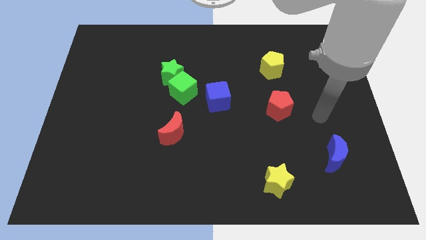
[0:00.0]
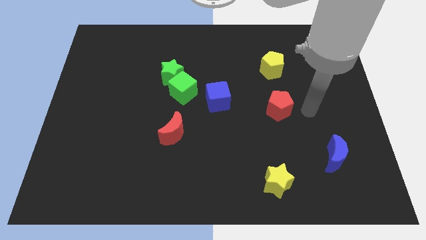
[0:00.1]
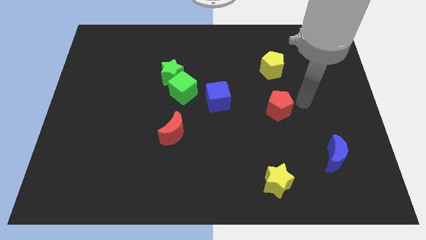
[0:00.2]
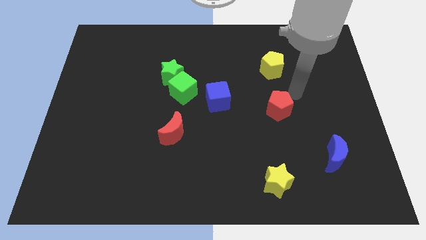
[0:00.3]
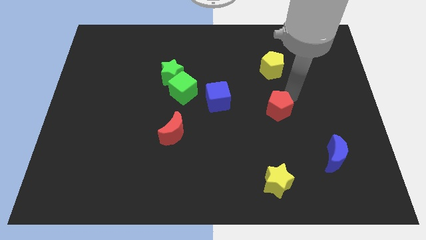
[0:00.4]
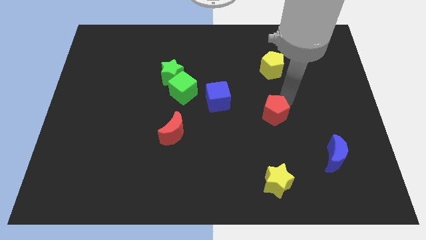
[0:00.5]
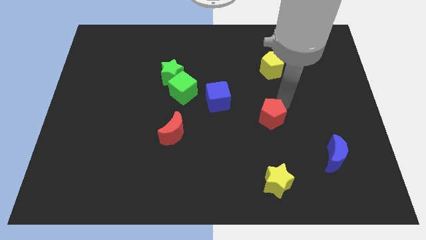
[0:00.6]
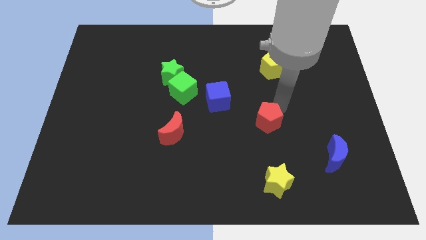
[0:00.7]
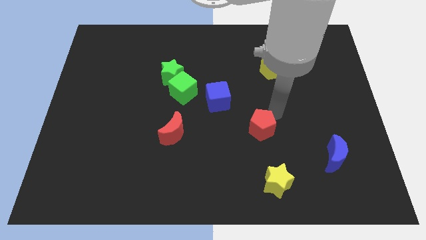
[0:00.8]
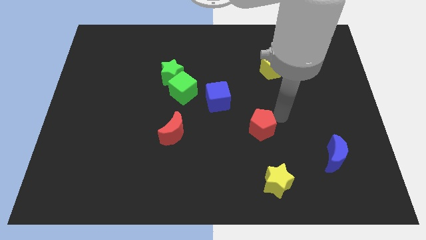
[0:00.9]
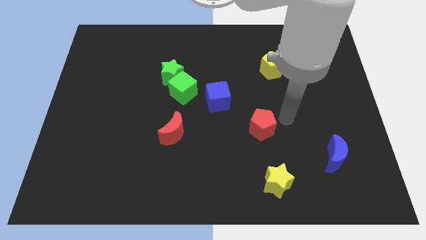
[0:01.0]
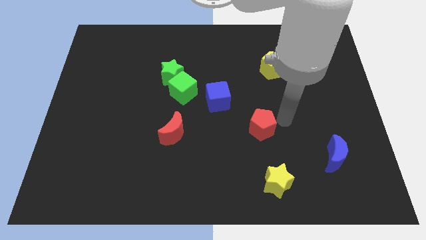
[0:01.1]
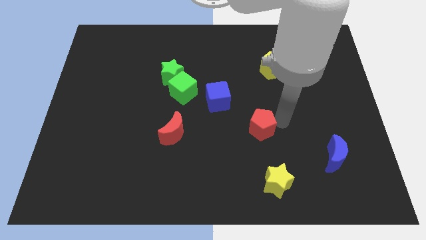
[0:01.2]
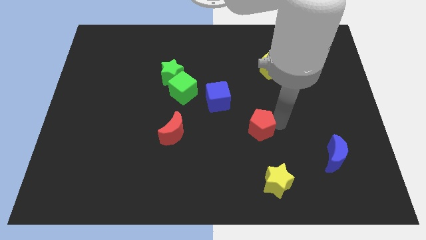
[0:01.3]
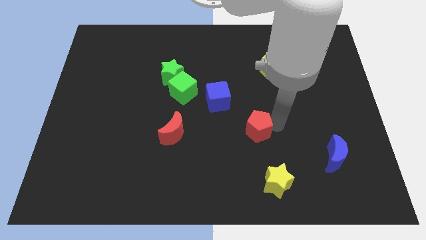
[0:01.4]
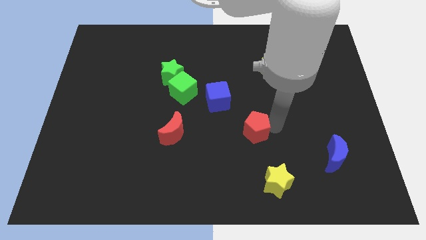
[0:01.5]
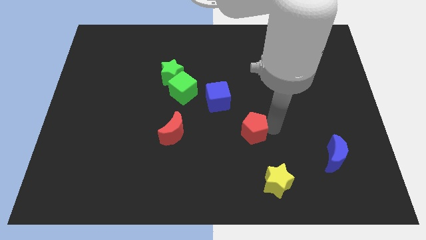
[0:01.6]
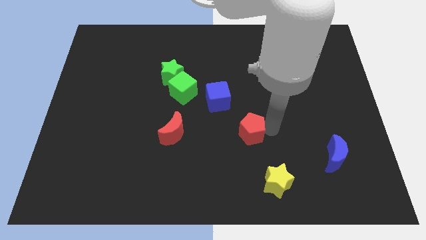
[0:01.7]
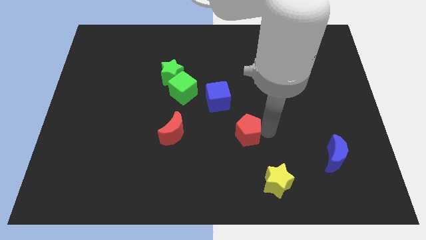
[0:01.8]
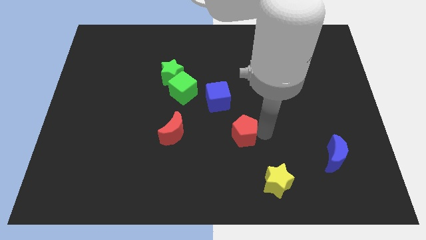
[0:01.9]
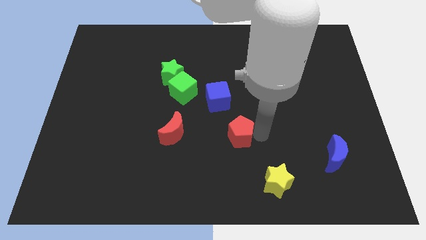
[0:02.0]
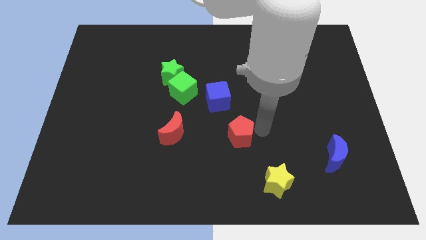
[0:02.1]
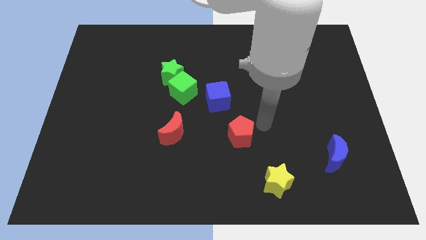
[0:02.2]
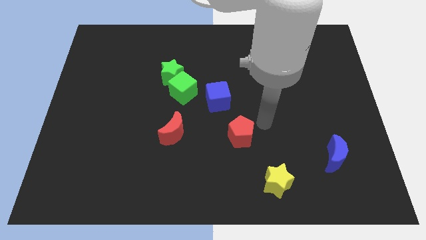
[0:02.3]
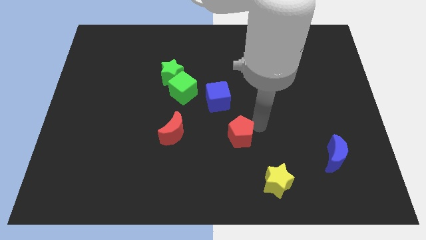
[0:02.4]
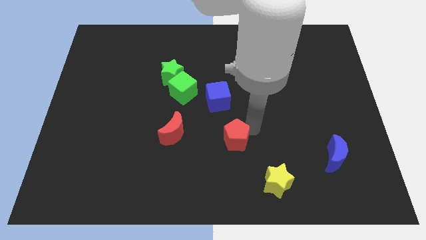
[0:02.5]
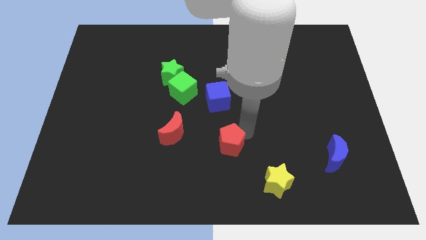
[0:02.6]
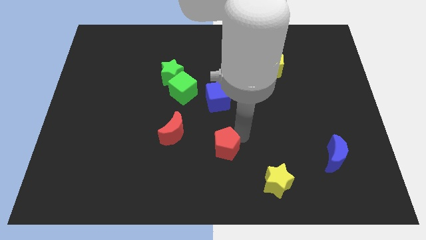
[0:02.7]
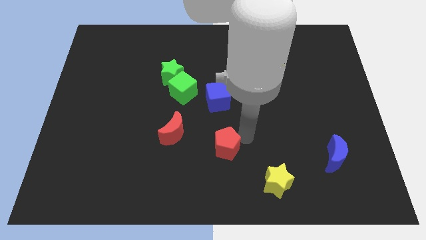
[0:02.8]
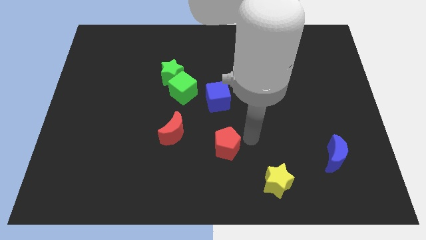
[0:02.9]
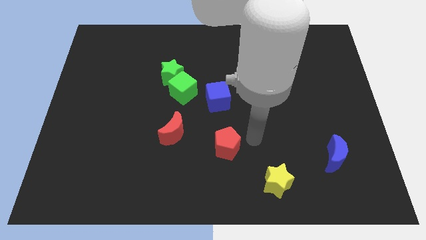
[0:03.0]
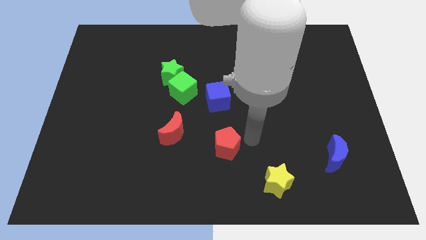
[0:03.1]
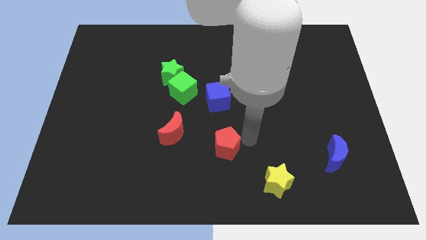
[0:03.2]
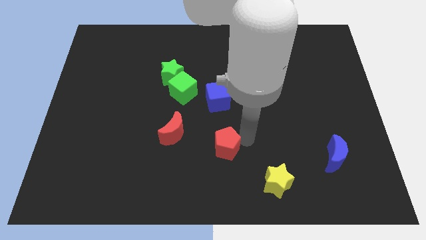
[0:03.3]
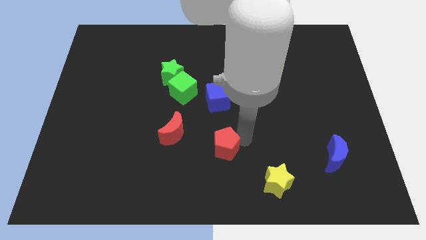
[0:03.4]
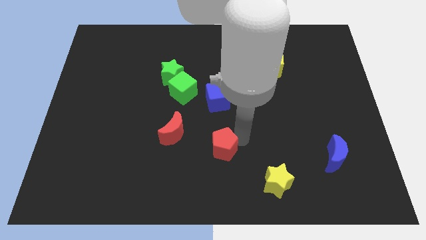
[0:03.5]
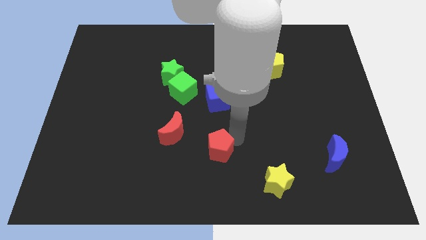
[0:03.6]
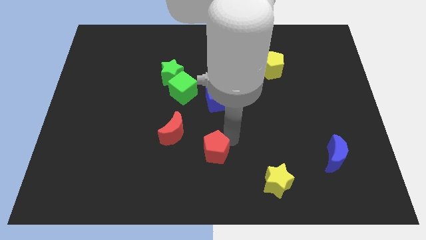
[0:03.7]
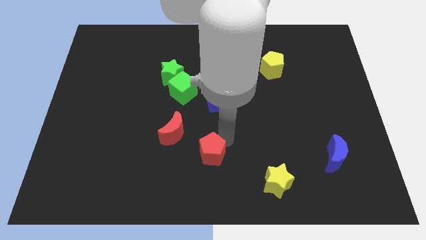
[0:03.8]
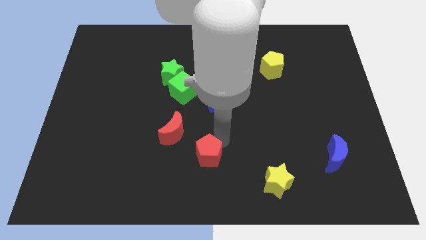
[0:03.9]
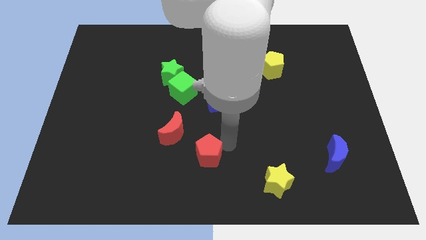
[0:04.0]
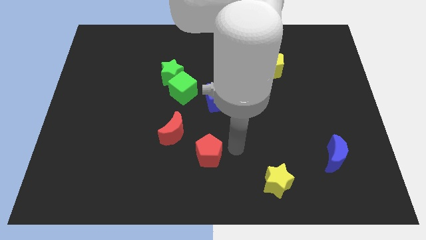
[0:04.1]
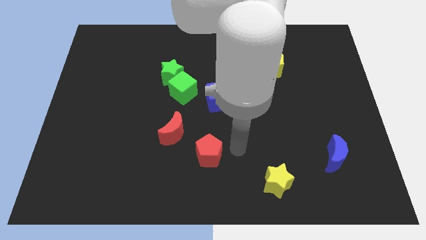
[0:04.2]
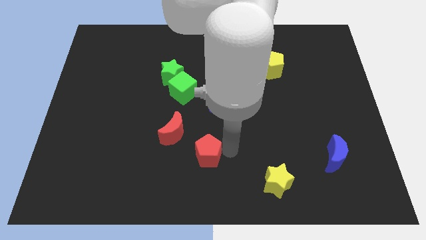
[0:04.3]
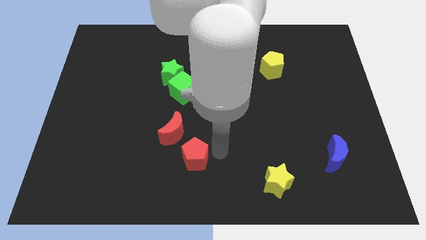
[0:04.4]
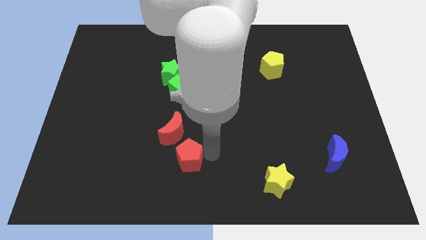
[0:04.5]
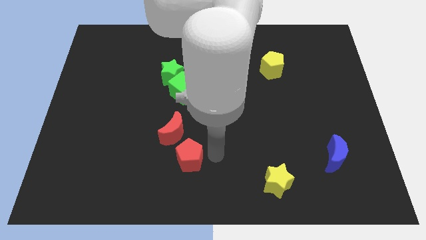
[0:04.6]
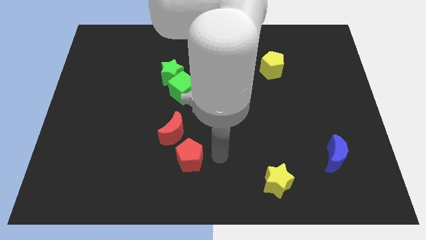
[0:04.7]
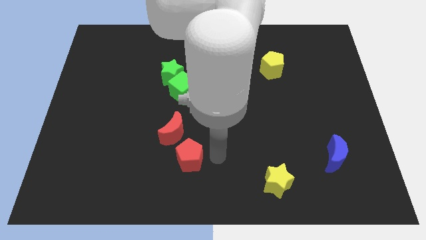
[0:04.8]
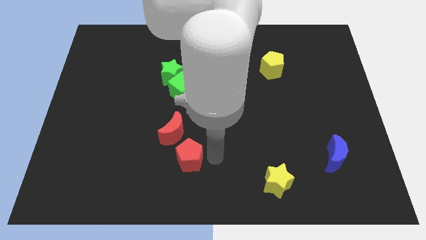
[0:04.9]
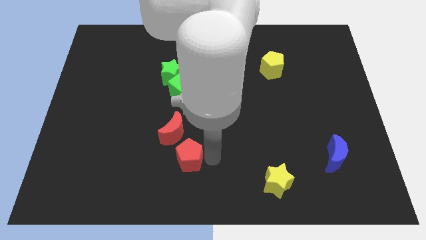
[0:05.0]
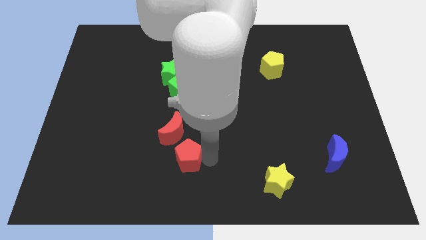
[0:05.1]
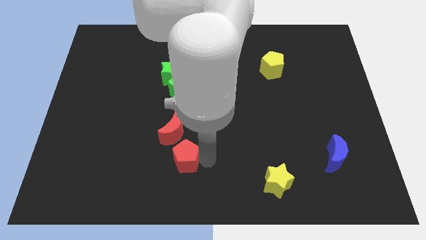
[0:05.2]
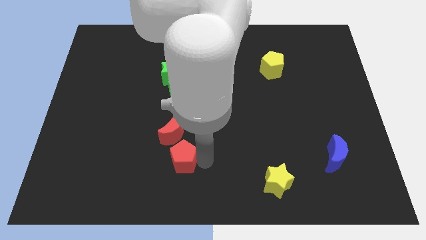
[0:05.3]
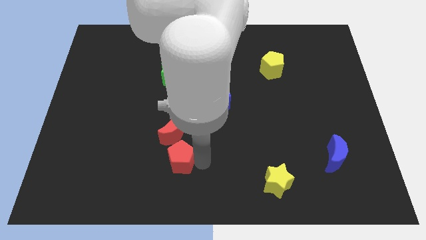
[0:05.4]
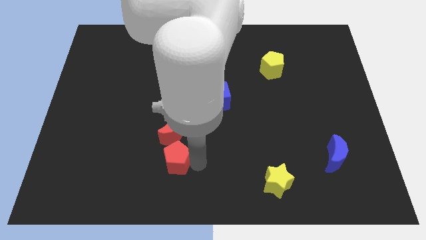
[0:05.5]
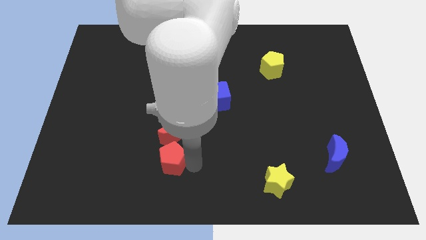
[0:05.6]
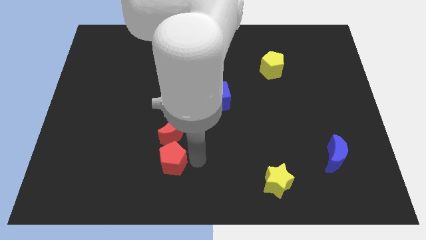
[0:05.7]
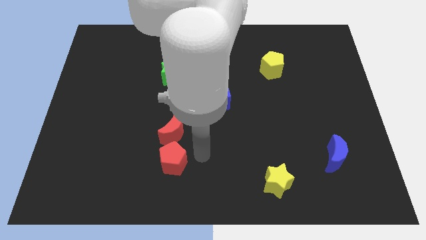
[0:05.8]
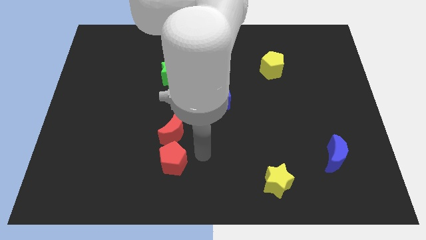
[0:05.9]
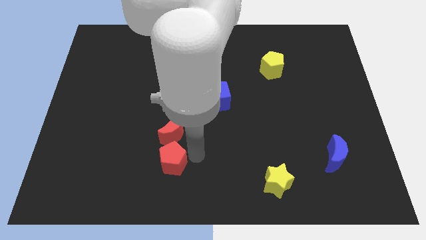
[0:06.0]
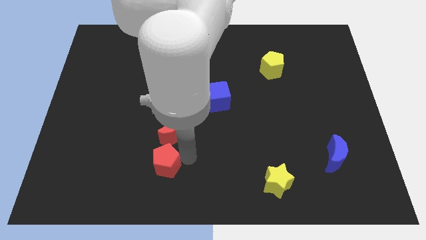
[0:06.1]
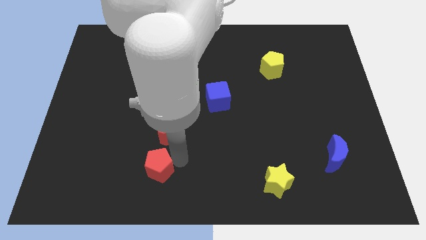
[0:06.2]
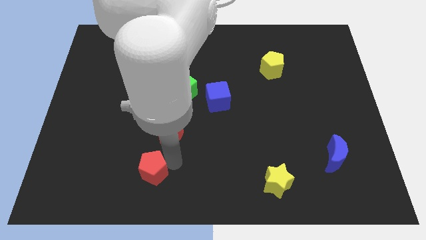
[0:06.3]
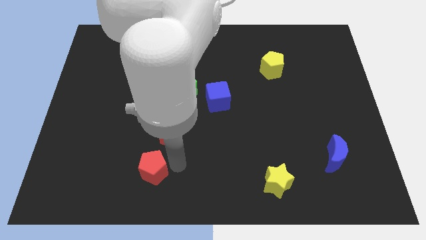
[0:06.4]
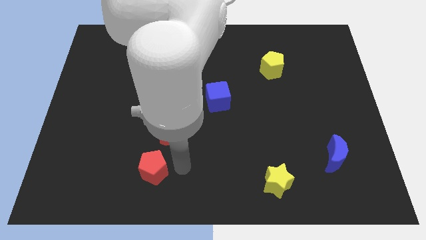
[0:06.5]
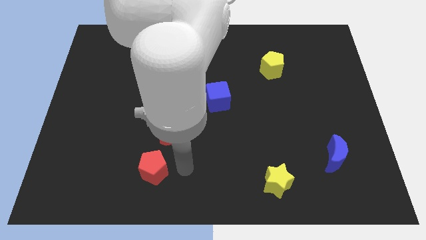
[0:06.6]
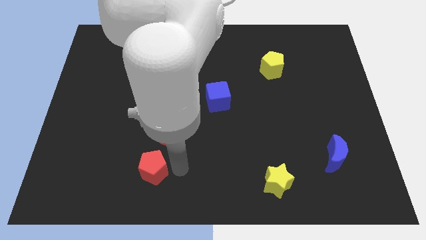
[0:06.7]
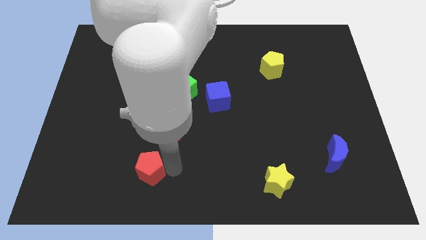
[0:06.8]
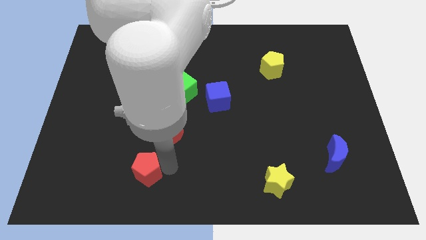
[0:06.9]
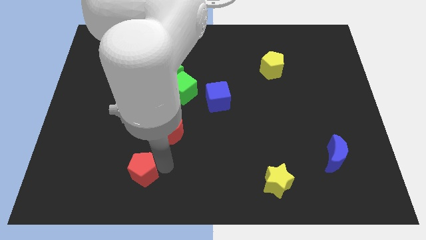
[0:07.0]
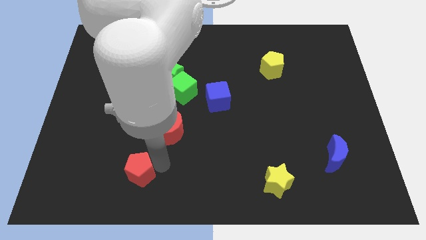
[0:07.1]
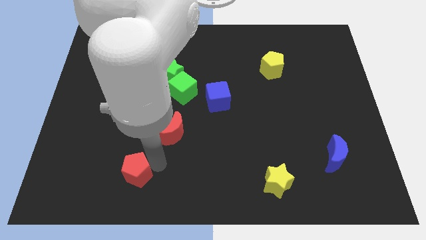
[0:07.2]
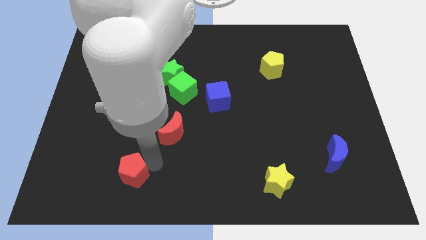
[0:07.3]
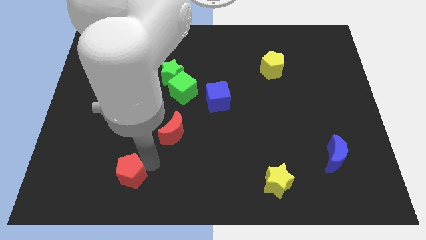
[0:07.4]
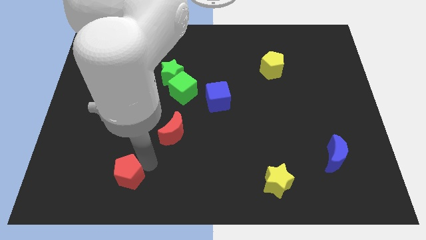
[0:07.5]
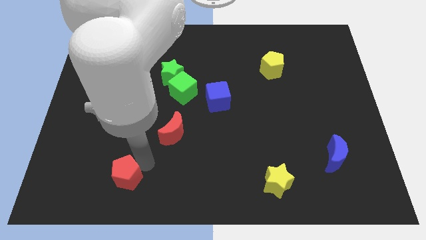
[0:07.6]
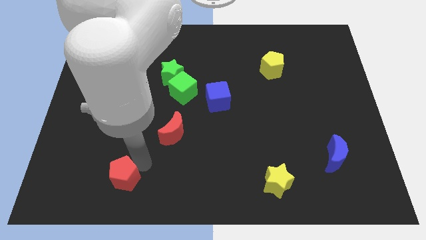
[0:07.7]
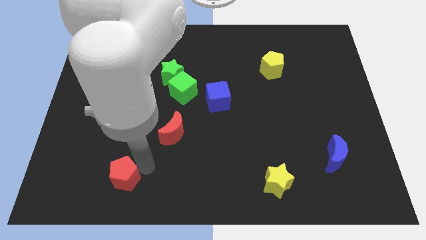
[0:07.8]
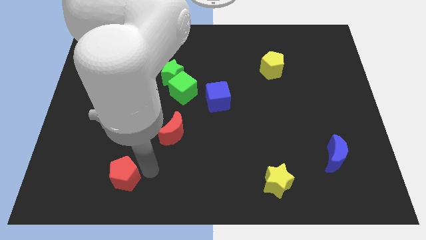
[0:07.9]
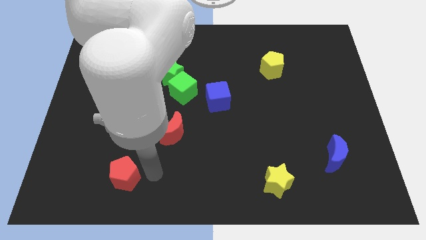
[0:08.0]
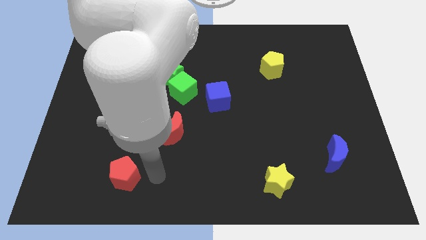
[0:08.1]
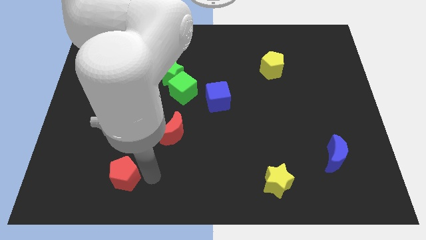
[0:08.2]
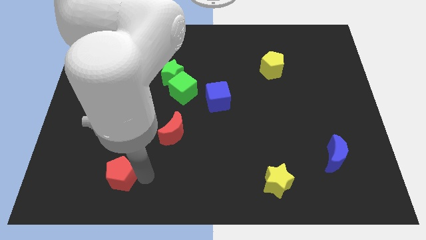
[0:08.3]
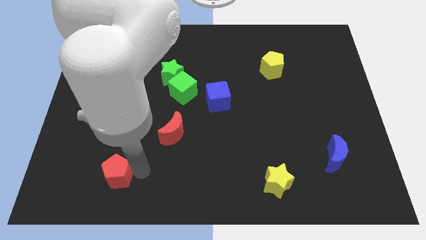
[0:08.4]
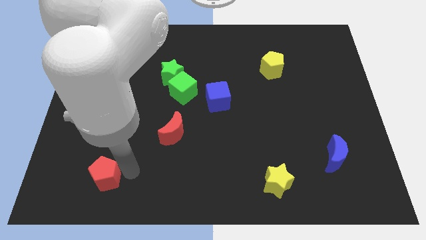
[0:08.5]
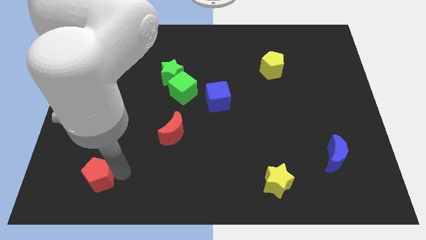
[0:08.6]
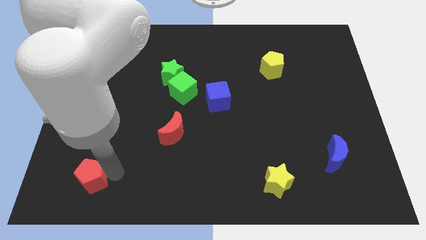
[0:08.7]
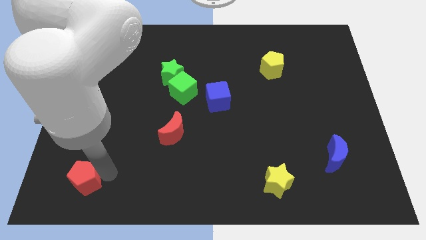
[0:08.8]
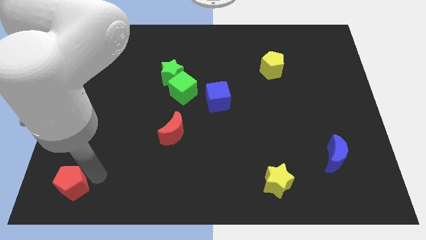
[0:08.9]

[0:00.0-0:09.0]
move the red pentagon to the bottom left of the board
